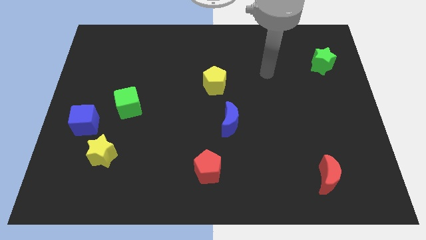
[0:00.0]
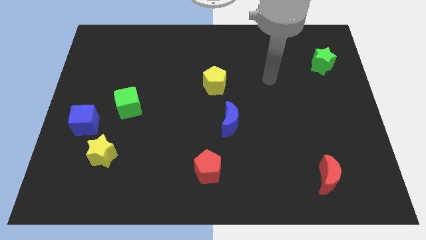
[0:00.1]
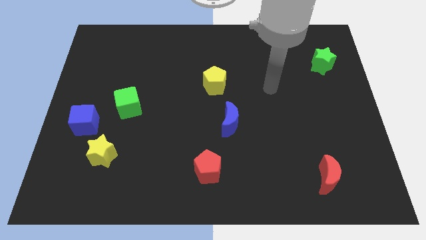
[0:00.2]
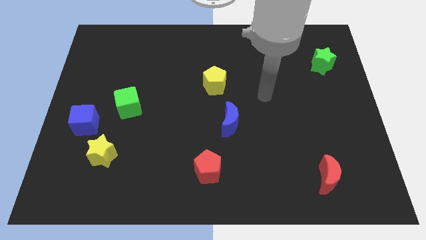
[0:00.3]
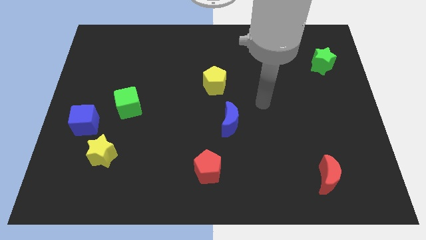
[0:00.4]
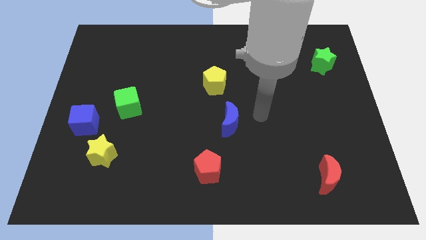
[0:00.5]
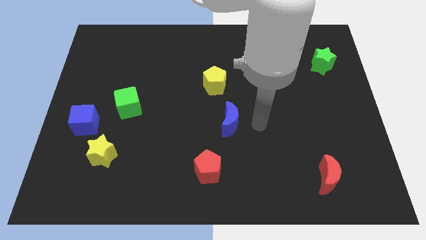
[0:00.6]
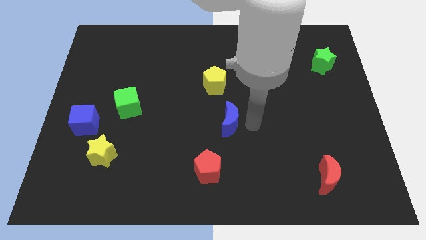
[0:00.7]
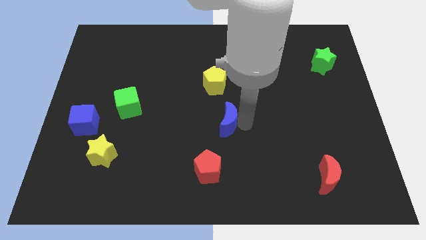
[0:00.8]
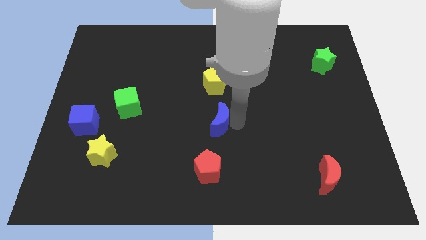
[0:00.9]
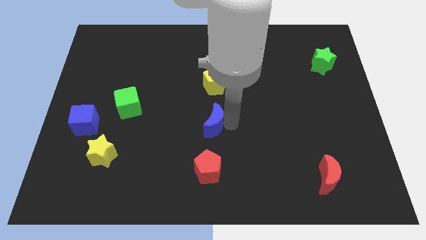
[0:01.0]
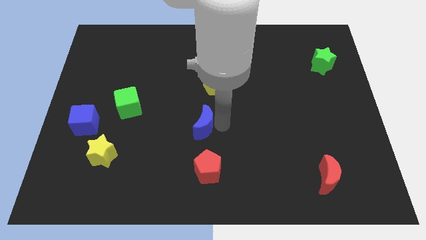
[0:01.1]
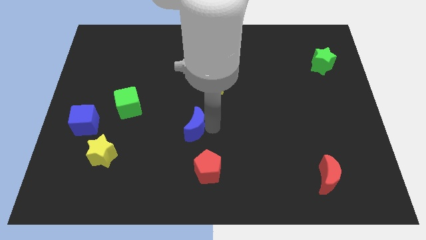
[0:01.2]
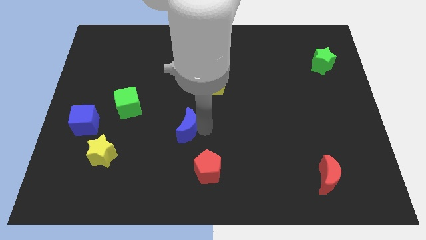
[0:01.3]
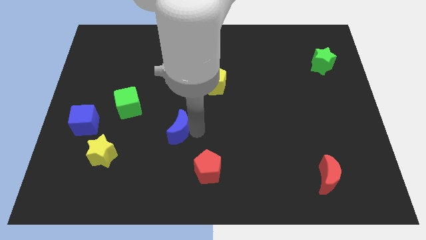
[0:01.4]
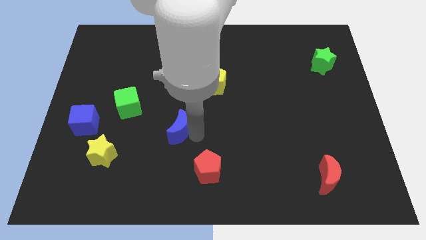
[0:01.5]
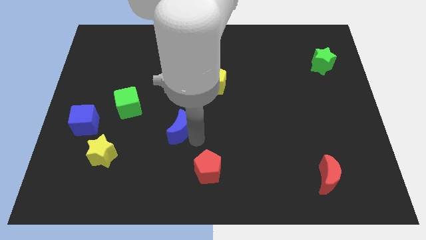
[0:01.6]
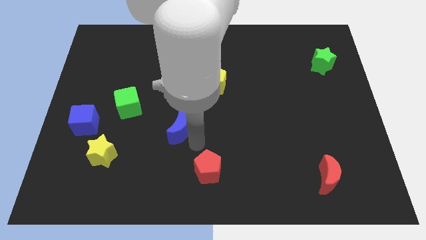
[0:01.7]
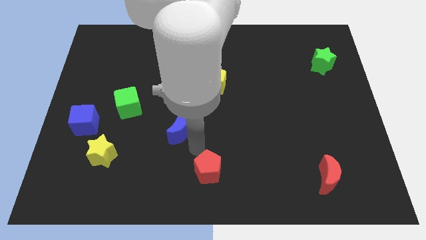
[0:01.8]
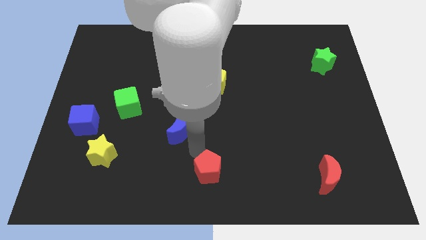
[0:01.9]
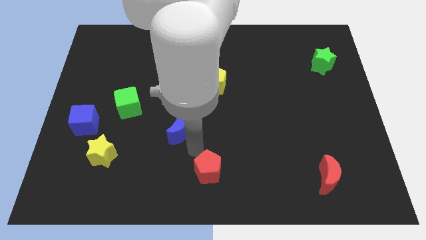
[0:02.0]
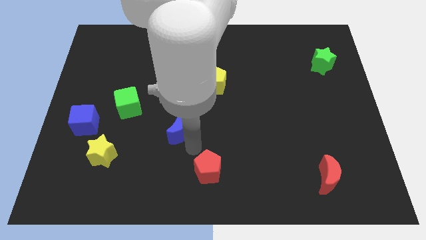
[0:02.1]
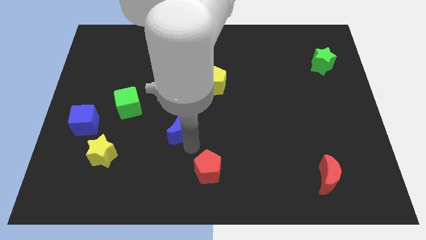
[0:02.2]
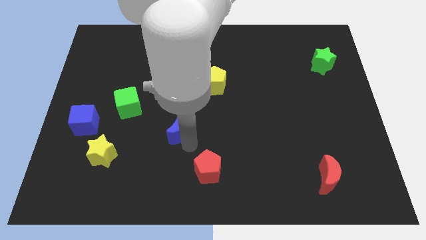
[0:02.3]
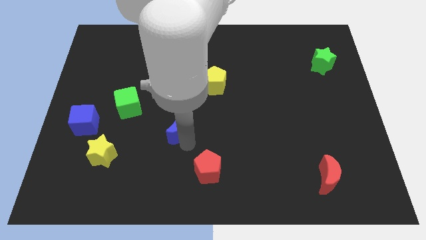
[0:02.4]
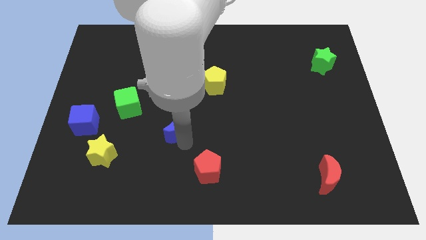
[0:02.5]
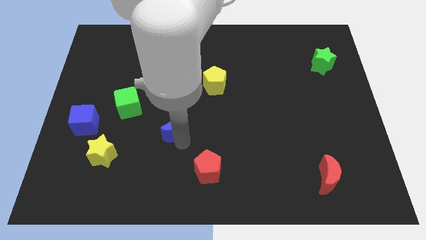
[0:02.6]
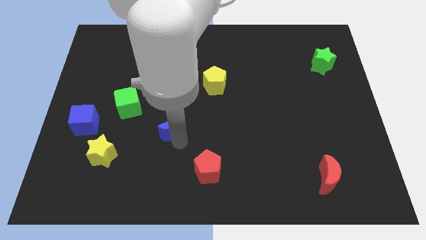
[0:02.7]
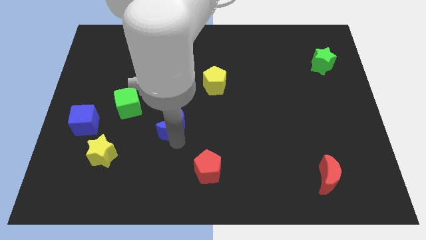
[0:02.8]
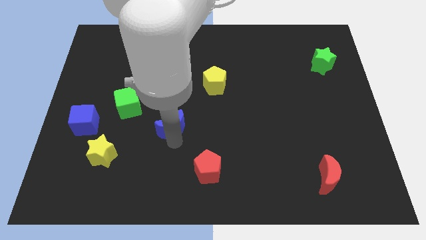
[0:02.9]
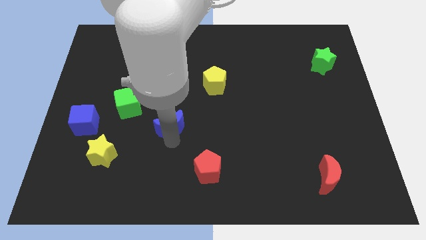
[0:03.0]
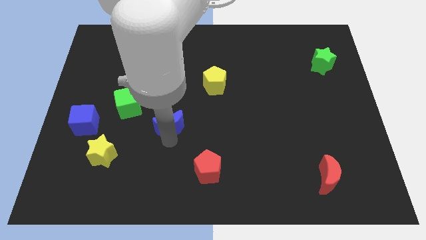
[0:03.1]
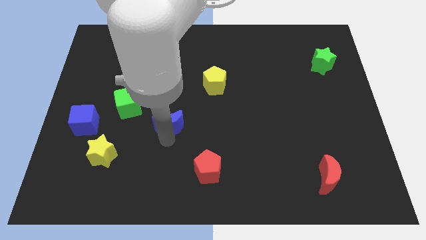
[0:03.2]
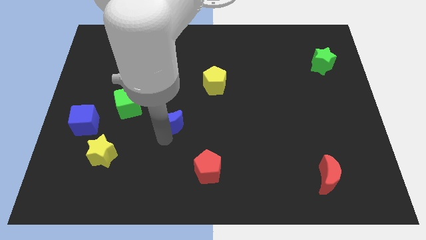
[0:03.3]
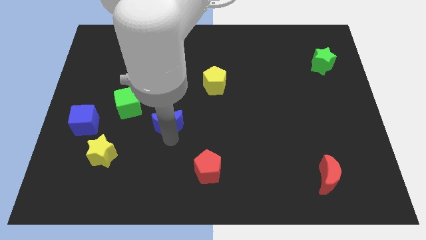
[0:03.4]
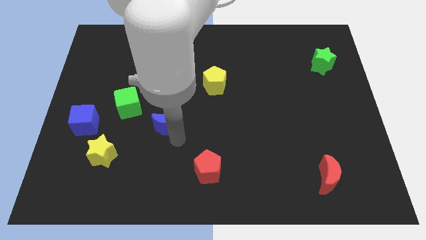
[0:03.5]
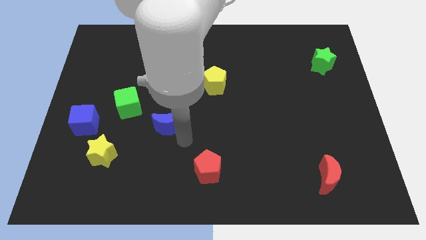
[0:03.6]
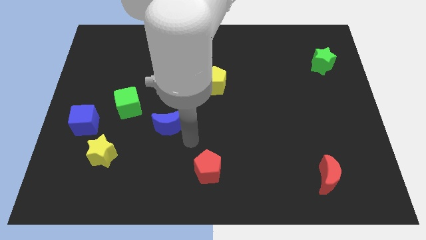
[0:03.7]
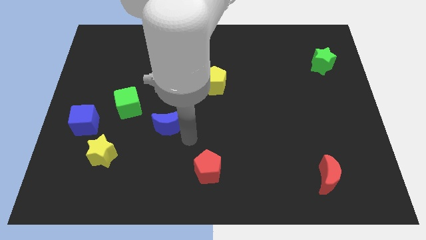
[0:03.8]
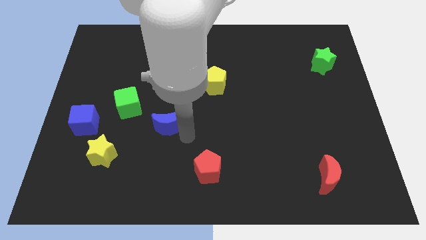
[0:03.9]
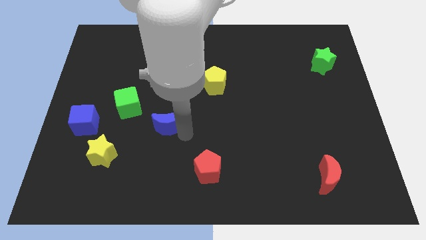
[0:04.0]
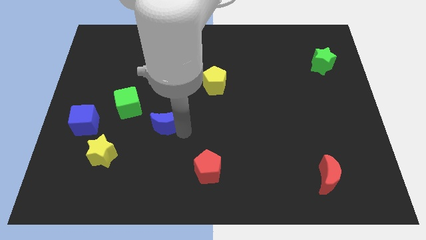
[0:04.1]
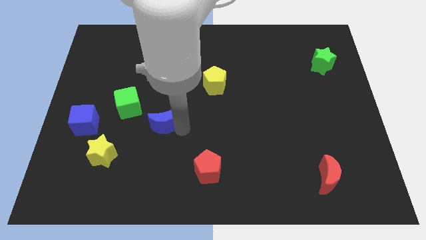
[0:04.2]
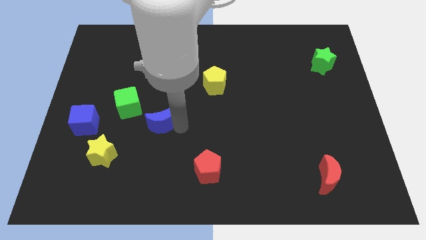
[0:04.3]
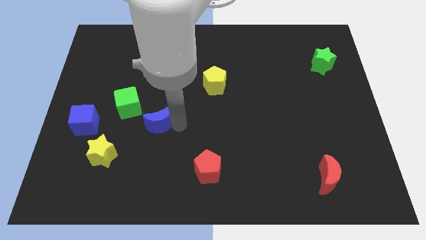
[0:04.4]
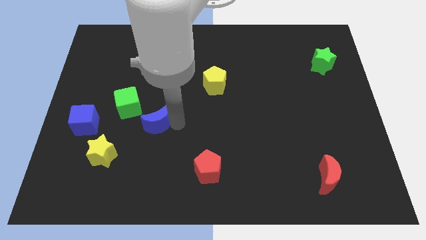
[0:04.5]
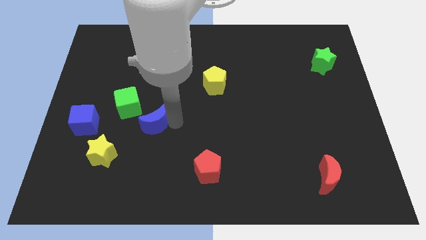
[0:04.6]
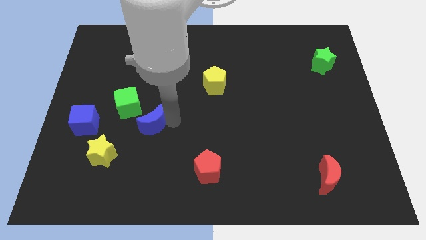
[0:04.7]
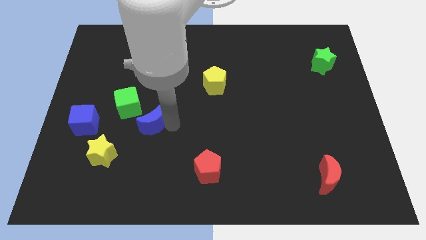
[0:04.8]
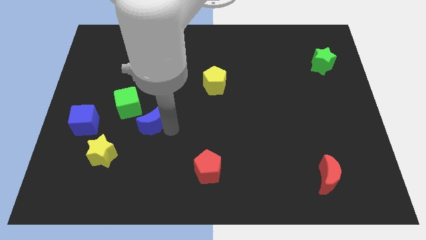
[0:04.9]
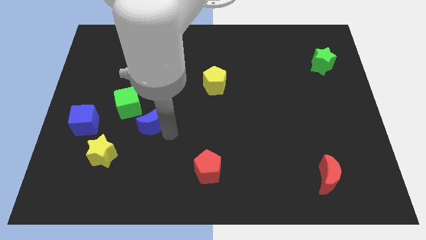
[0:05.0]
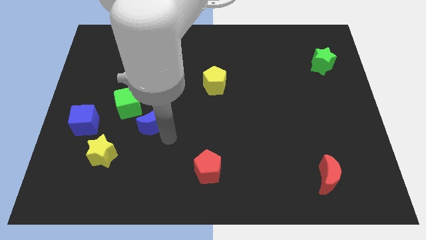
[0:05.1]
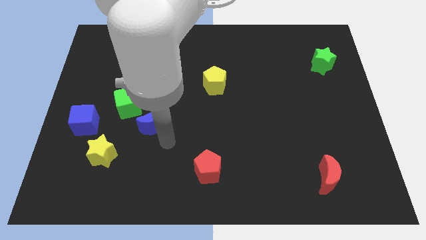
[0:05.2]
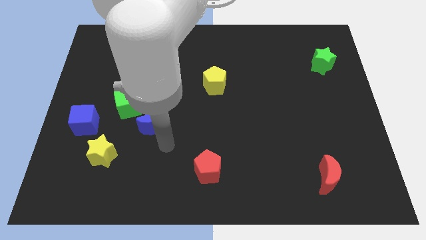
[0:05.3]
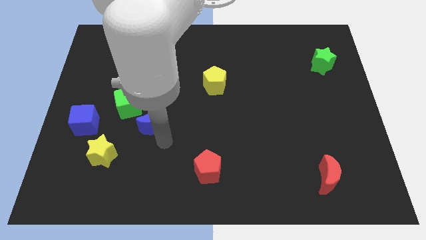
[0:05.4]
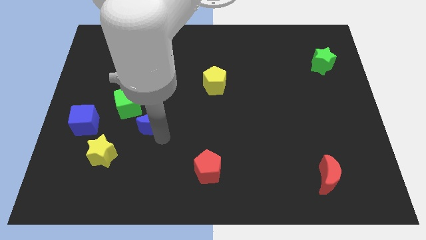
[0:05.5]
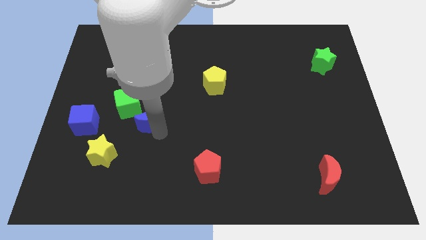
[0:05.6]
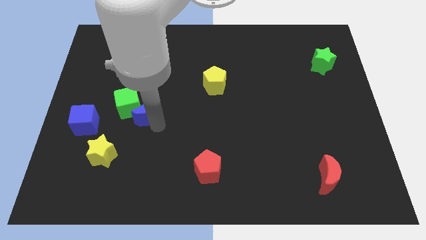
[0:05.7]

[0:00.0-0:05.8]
slide the blue moon next to the green cube

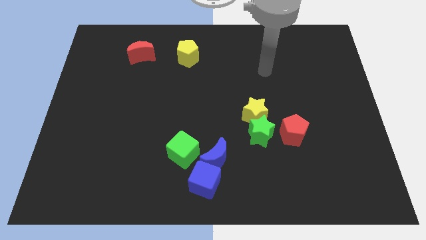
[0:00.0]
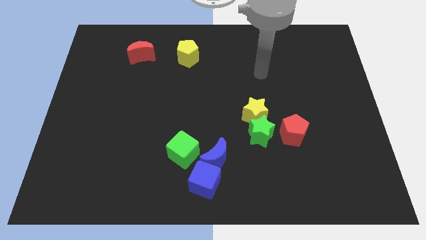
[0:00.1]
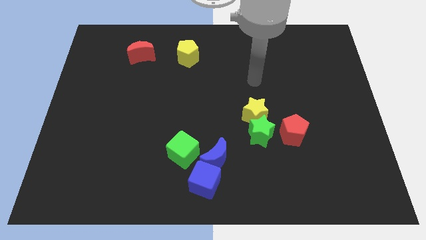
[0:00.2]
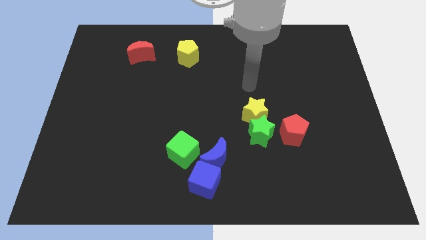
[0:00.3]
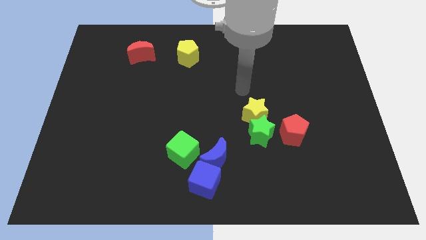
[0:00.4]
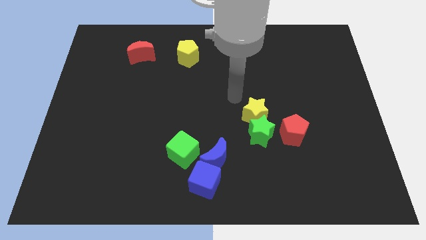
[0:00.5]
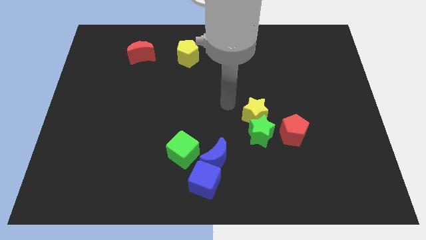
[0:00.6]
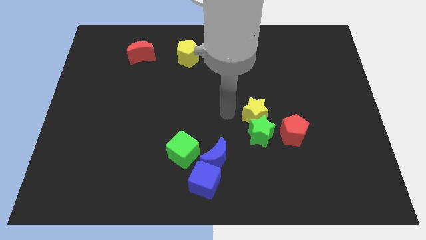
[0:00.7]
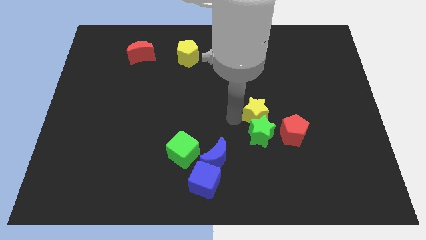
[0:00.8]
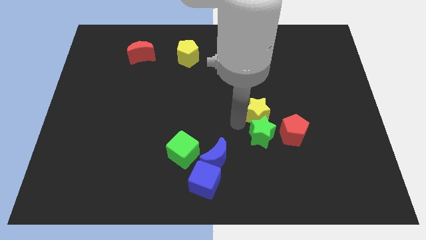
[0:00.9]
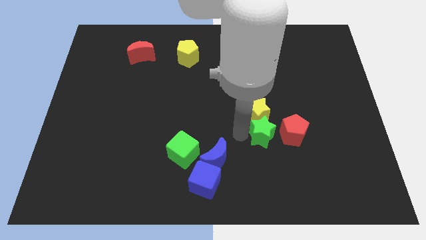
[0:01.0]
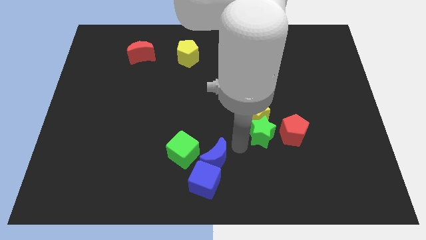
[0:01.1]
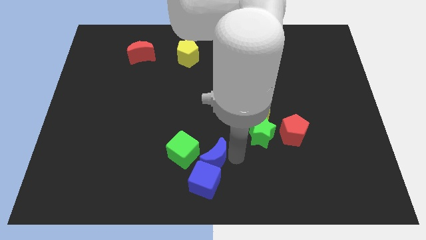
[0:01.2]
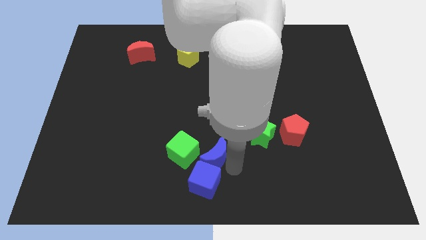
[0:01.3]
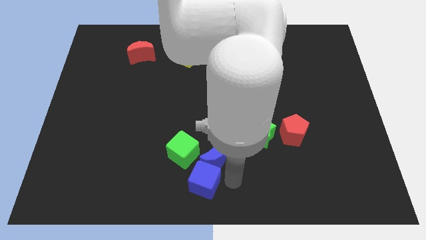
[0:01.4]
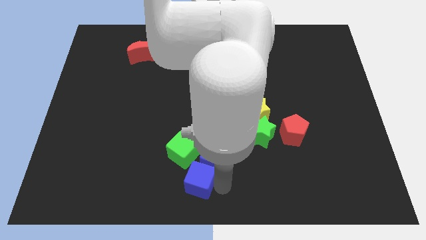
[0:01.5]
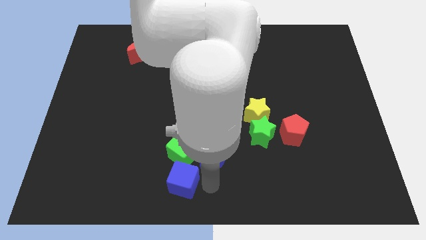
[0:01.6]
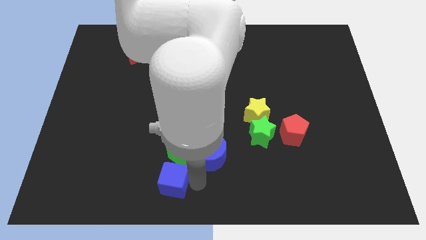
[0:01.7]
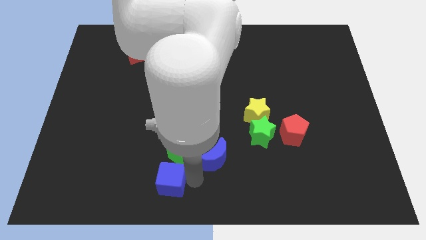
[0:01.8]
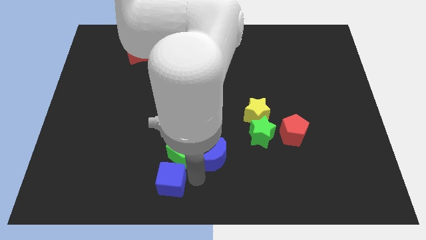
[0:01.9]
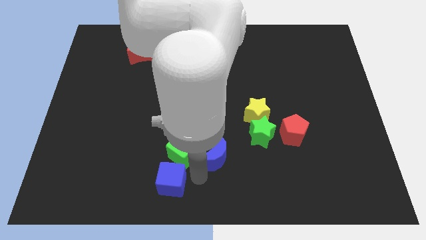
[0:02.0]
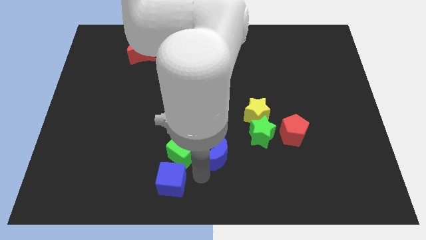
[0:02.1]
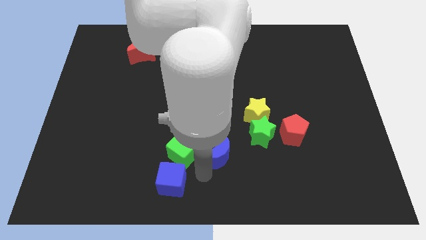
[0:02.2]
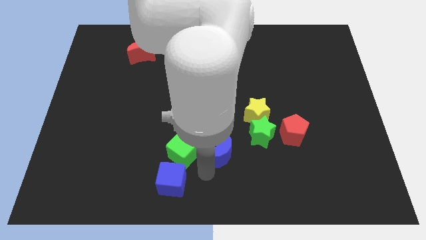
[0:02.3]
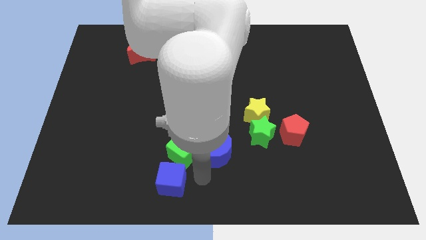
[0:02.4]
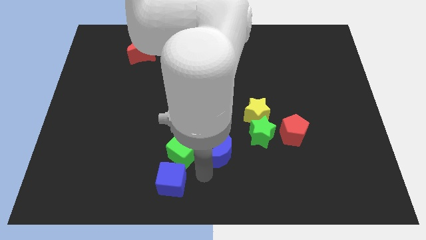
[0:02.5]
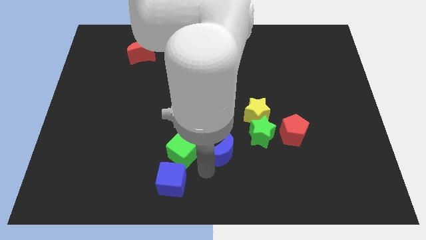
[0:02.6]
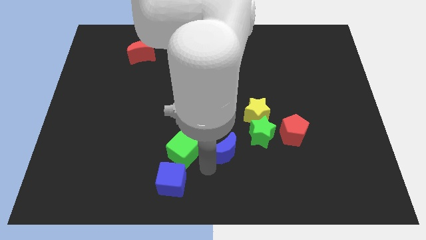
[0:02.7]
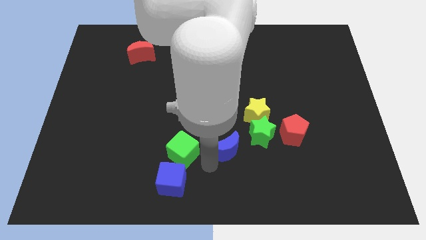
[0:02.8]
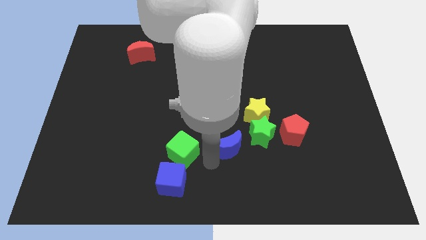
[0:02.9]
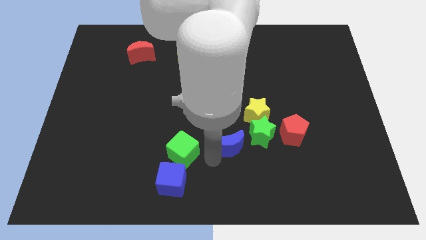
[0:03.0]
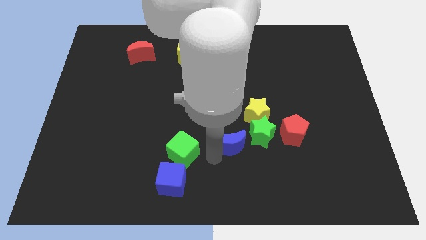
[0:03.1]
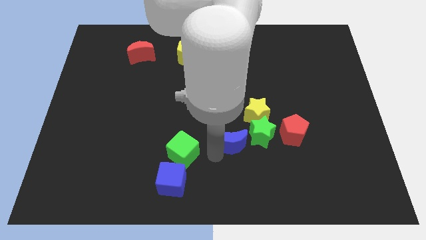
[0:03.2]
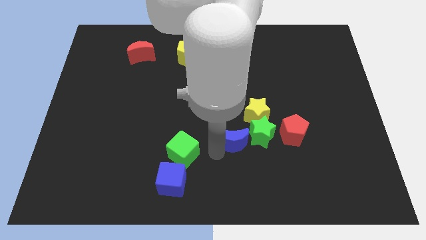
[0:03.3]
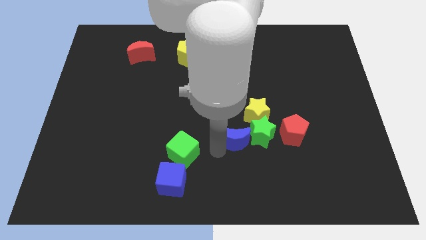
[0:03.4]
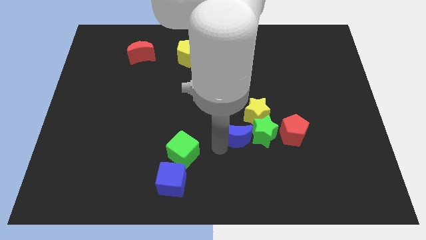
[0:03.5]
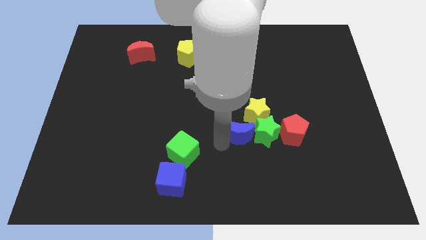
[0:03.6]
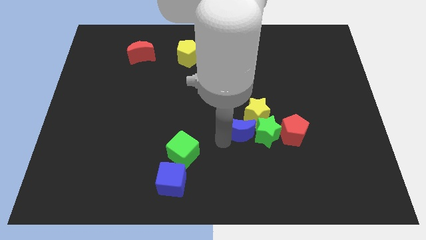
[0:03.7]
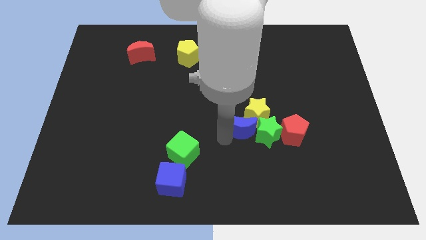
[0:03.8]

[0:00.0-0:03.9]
move the blue moon close to the yellow star
